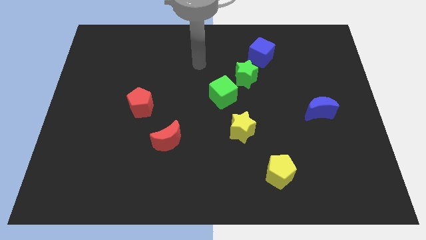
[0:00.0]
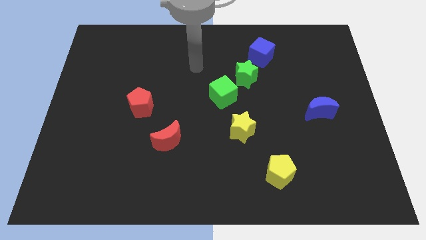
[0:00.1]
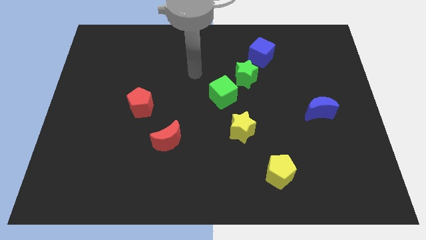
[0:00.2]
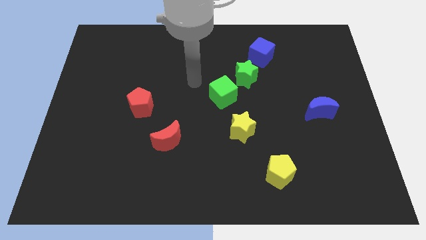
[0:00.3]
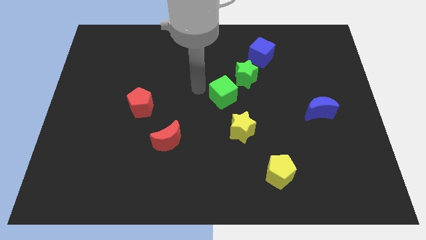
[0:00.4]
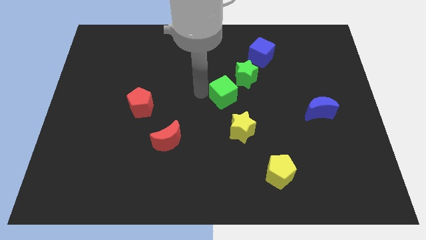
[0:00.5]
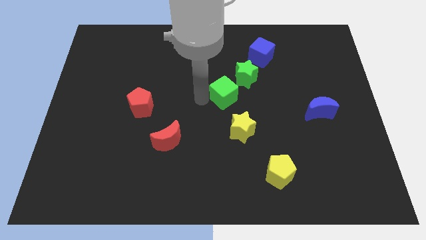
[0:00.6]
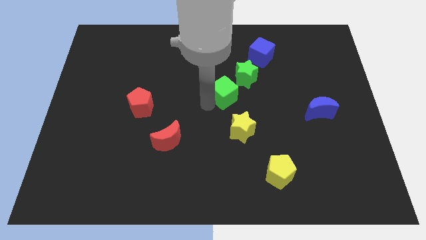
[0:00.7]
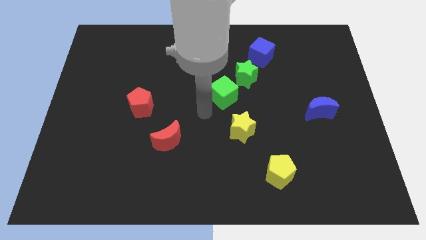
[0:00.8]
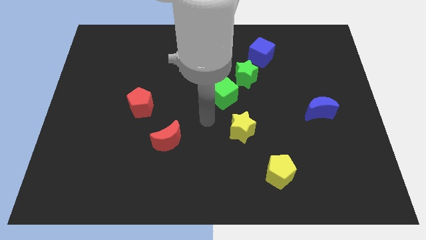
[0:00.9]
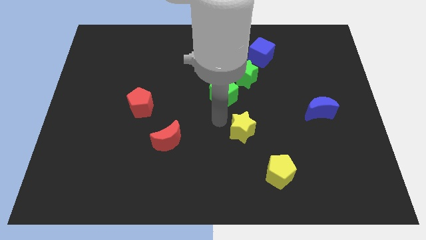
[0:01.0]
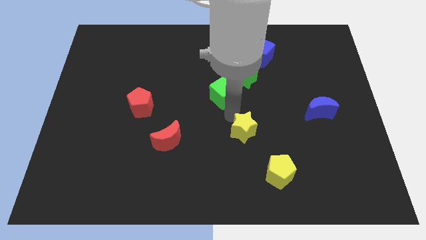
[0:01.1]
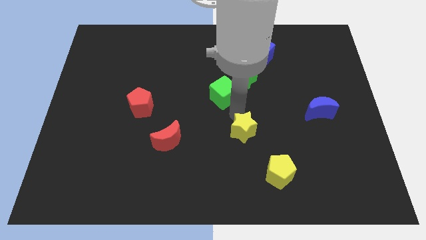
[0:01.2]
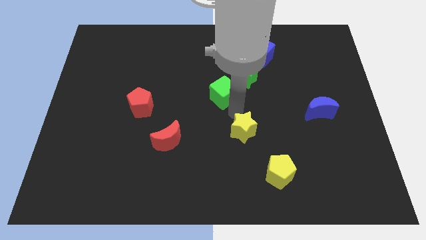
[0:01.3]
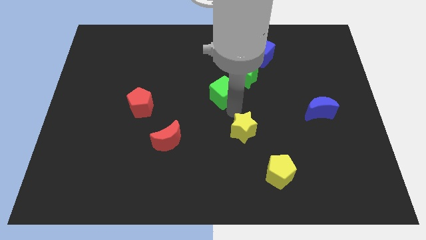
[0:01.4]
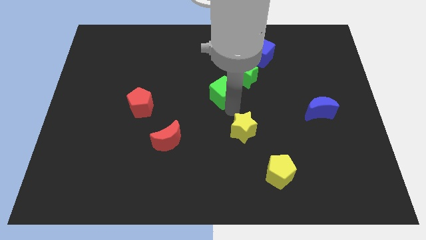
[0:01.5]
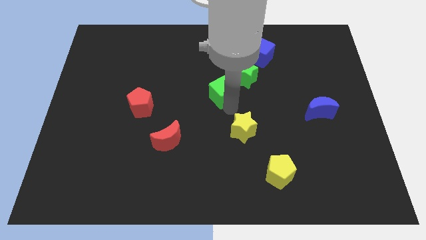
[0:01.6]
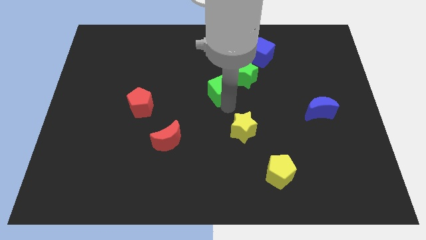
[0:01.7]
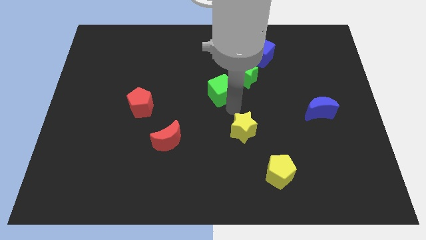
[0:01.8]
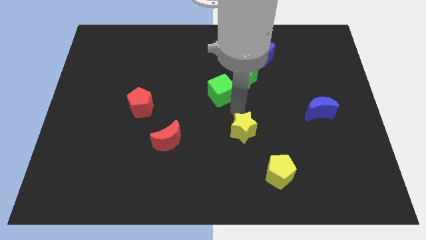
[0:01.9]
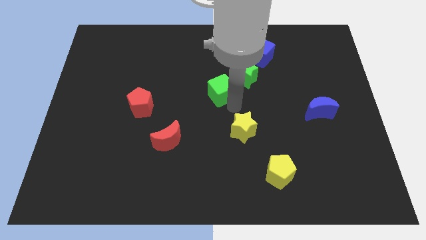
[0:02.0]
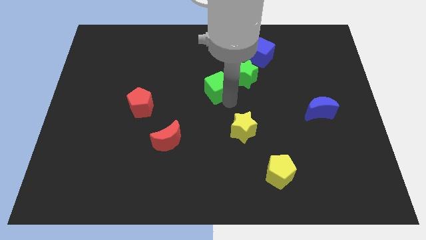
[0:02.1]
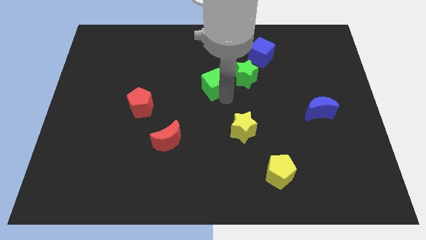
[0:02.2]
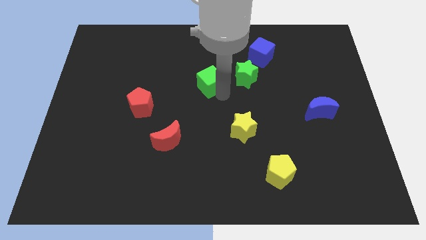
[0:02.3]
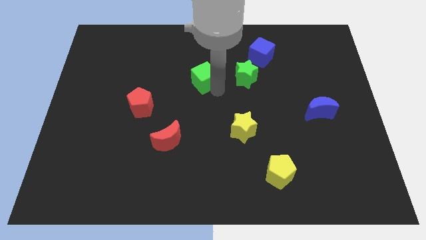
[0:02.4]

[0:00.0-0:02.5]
push the green cube upwards and to the left slightly

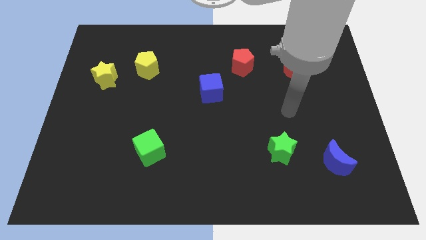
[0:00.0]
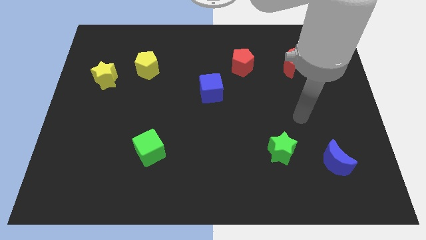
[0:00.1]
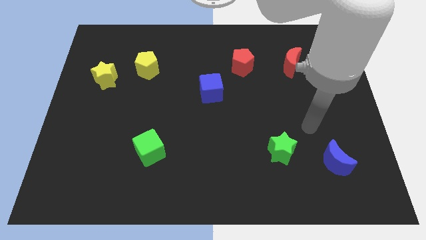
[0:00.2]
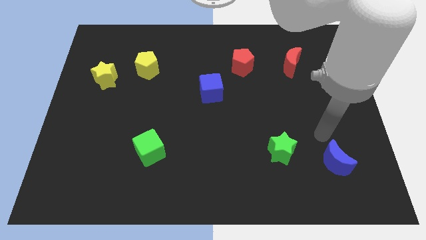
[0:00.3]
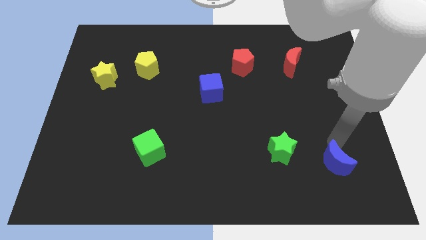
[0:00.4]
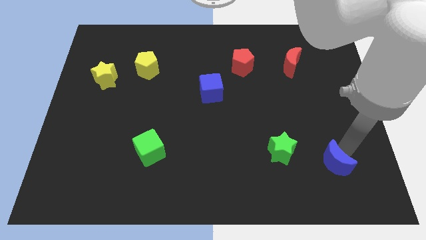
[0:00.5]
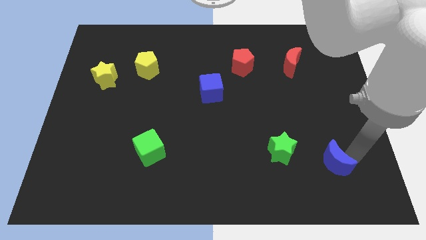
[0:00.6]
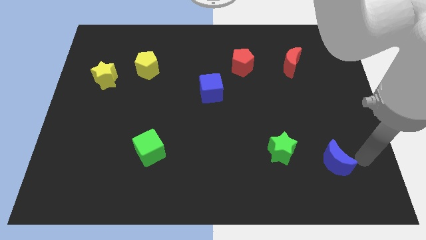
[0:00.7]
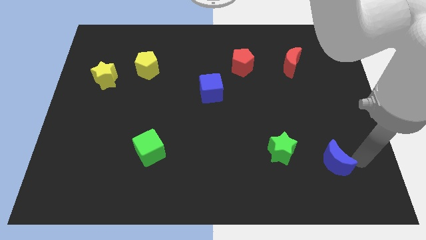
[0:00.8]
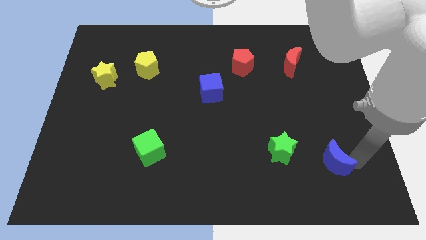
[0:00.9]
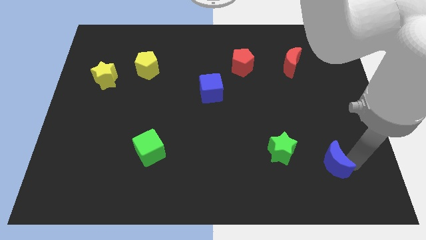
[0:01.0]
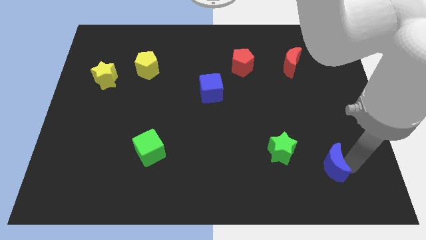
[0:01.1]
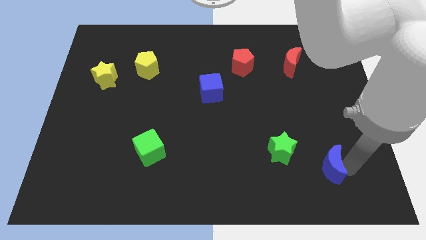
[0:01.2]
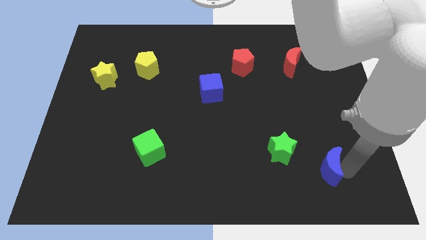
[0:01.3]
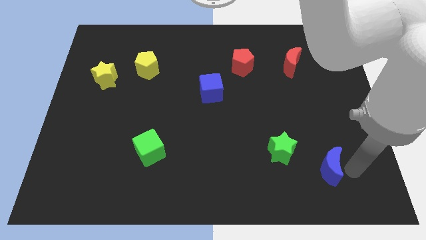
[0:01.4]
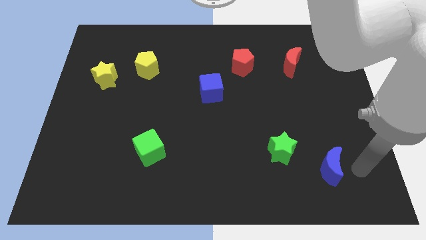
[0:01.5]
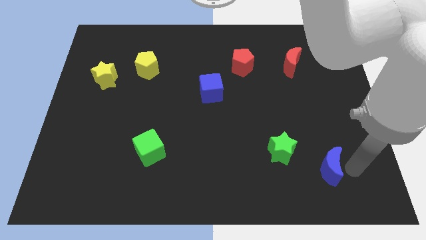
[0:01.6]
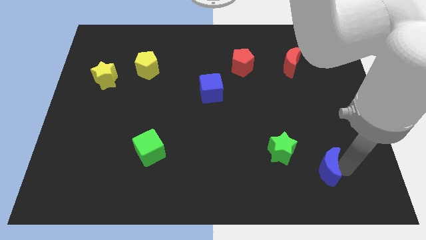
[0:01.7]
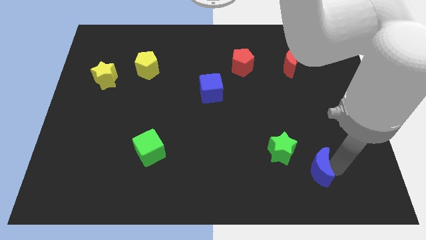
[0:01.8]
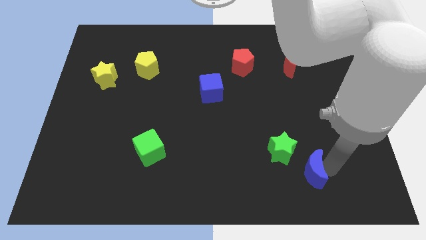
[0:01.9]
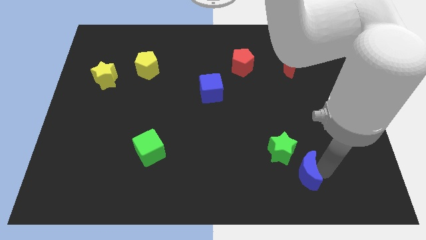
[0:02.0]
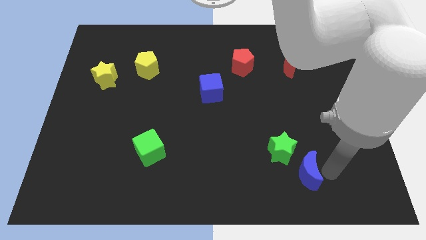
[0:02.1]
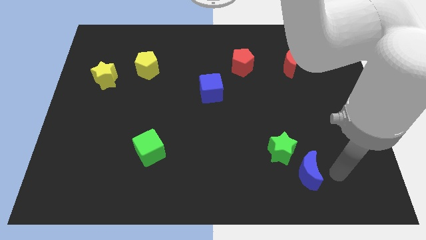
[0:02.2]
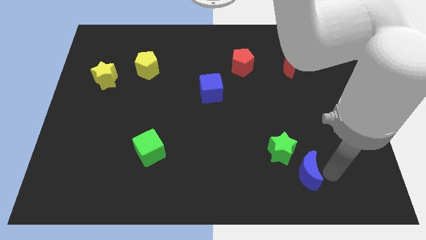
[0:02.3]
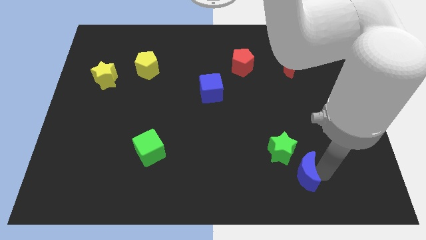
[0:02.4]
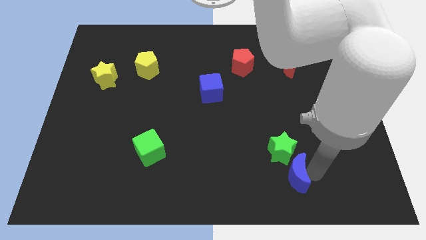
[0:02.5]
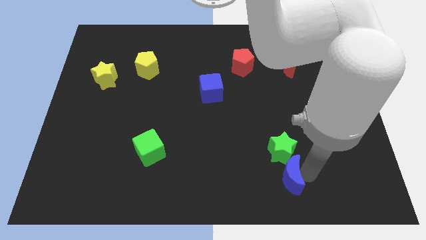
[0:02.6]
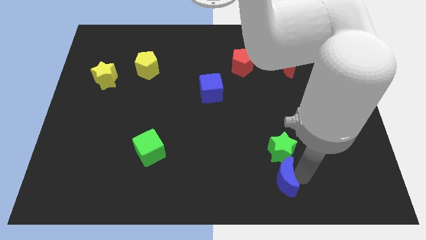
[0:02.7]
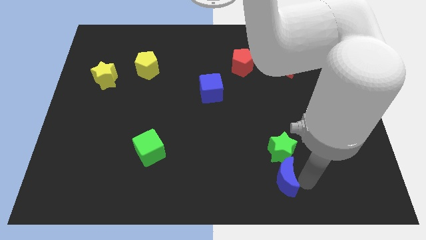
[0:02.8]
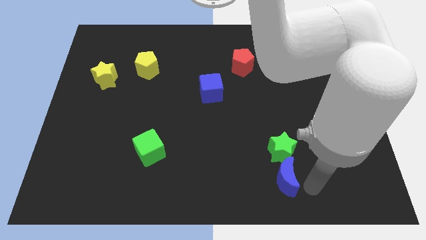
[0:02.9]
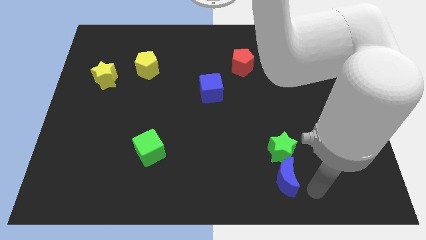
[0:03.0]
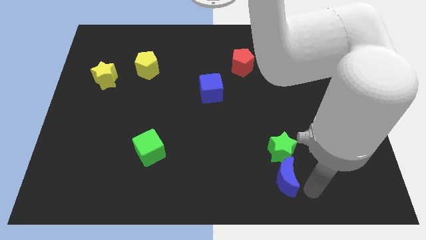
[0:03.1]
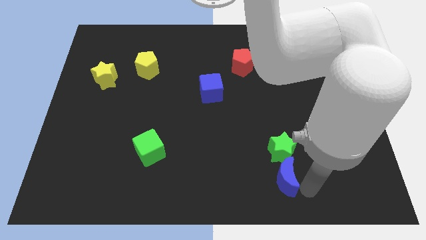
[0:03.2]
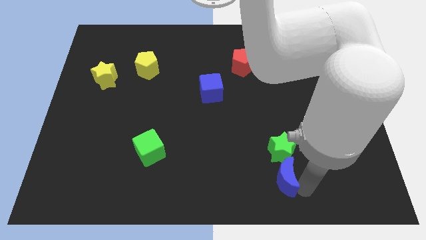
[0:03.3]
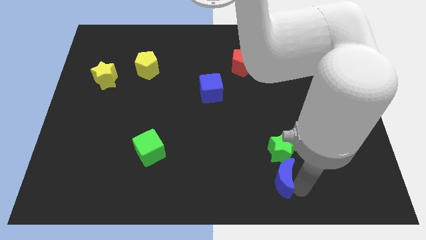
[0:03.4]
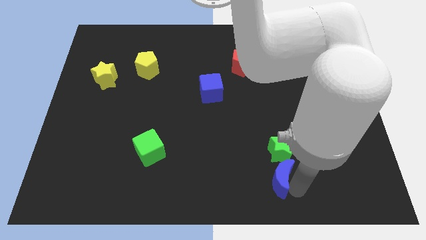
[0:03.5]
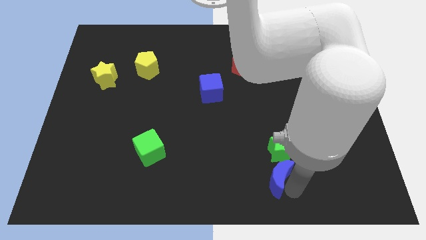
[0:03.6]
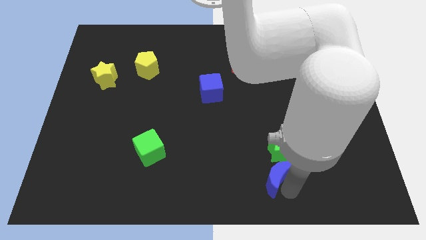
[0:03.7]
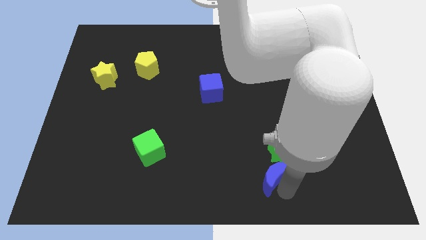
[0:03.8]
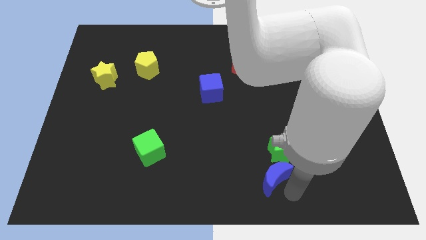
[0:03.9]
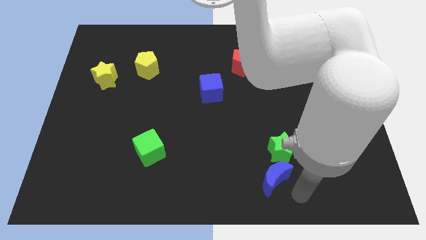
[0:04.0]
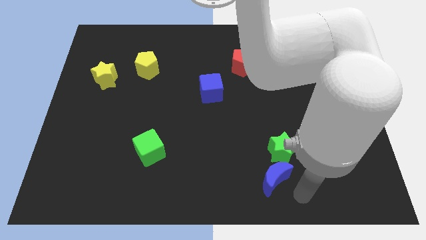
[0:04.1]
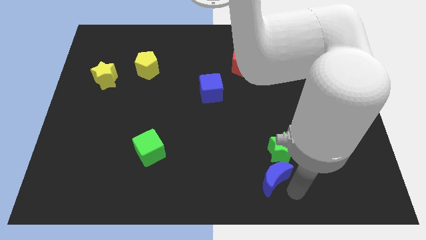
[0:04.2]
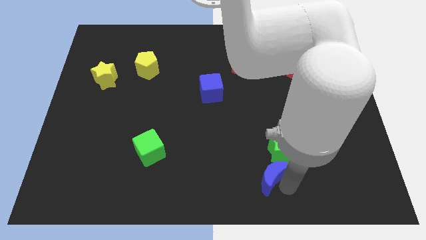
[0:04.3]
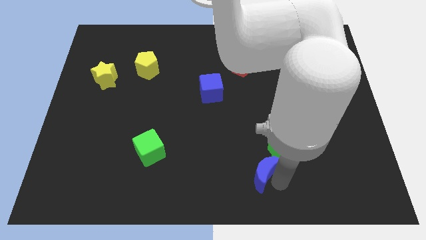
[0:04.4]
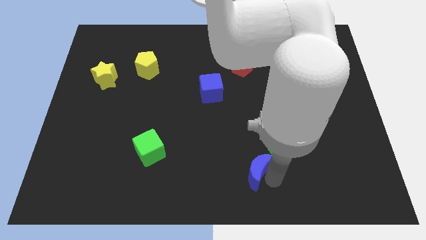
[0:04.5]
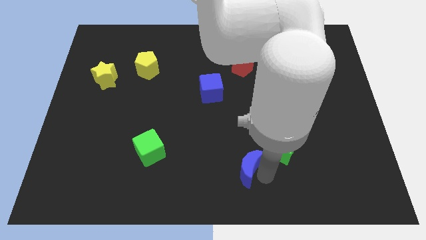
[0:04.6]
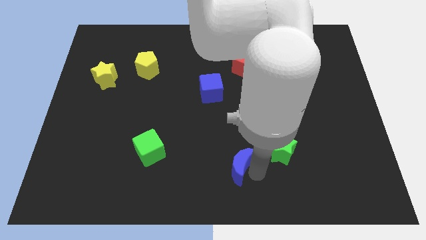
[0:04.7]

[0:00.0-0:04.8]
push the blue moon left

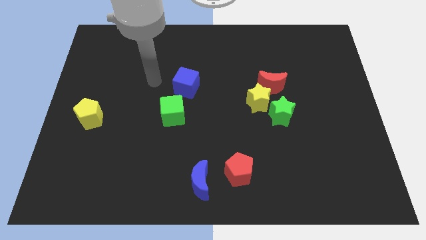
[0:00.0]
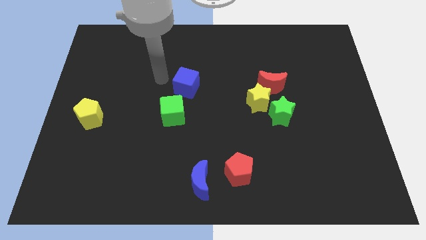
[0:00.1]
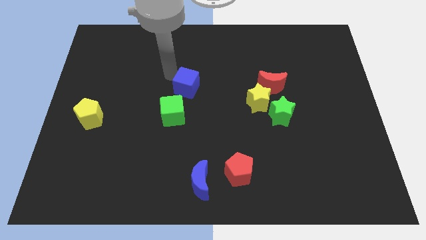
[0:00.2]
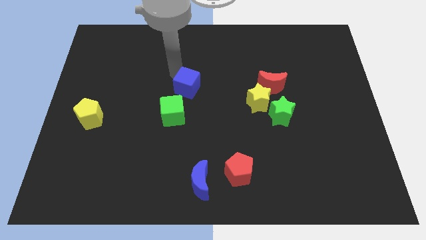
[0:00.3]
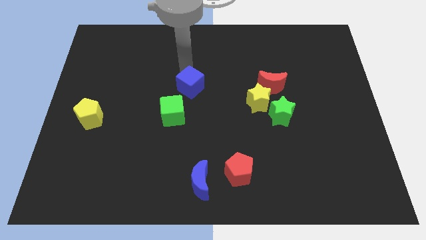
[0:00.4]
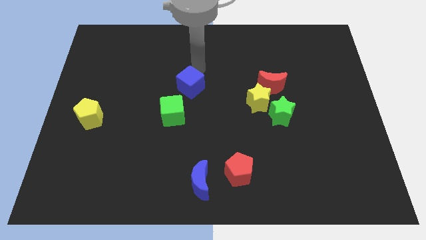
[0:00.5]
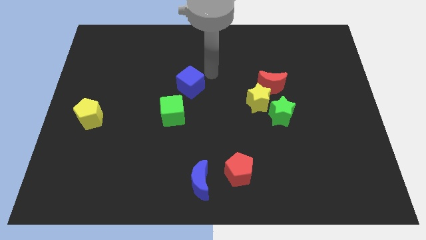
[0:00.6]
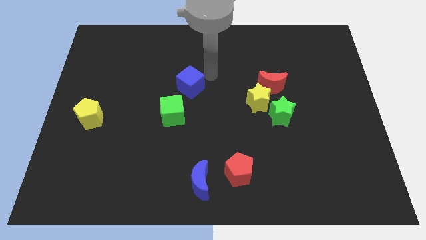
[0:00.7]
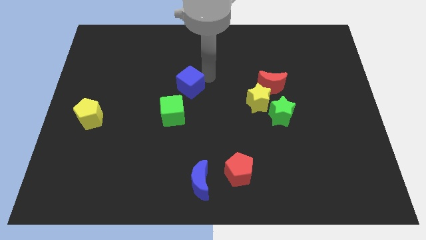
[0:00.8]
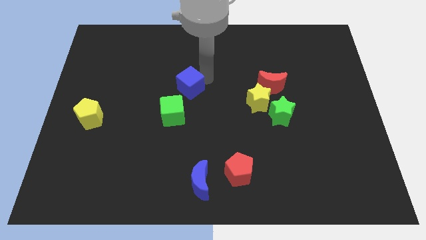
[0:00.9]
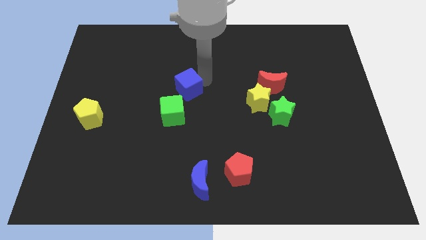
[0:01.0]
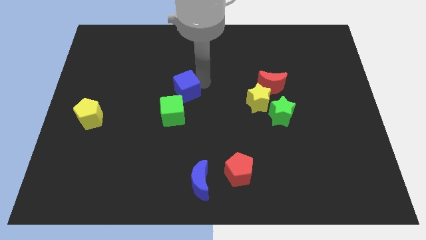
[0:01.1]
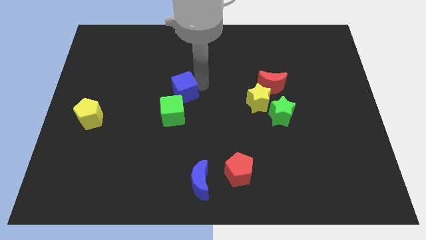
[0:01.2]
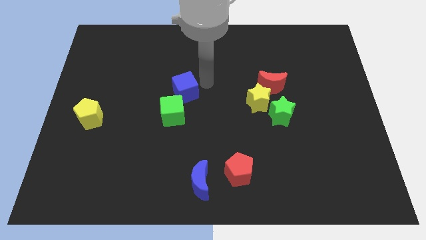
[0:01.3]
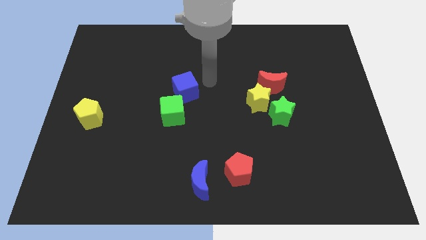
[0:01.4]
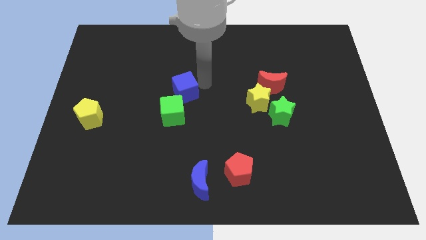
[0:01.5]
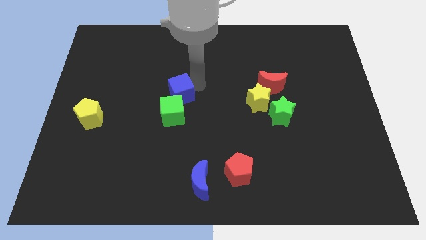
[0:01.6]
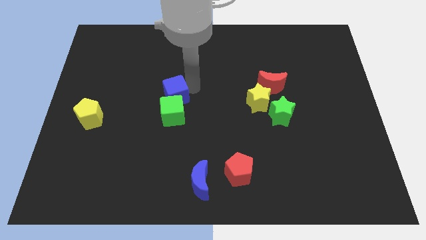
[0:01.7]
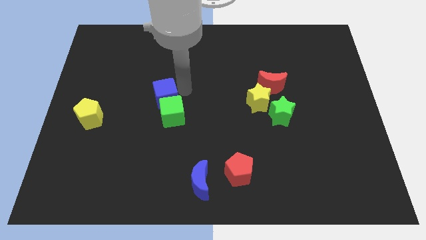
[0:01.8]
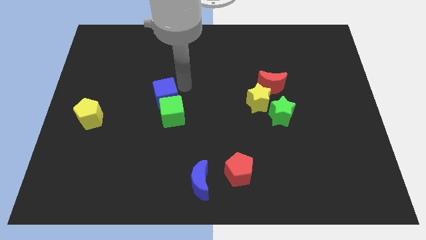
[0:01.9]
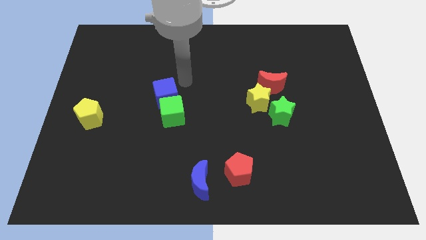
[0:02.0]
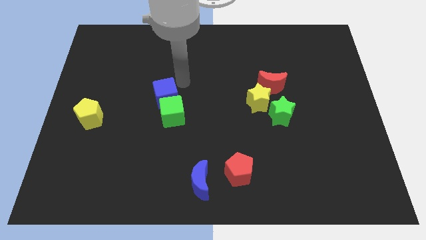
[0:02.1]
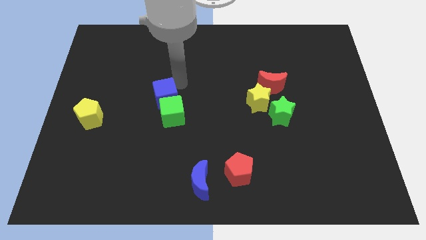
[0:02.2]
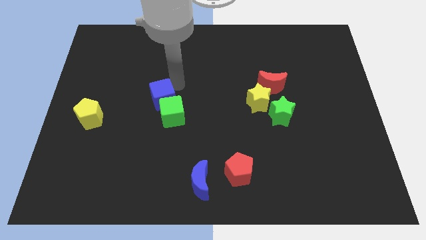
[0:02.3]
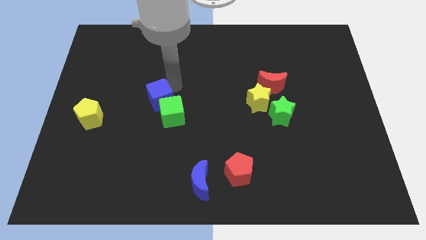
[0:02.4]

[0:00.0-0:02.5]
push the blue cube somewhat down and to the left
